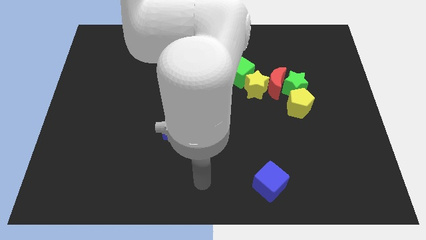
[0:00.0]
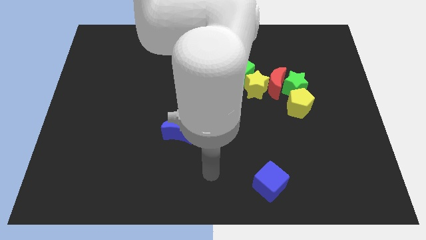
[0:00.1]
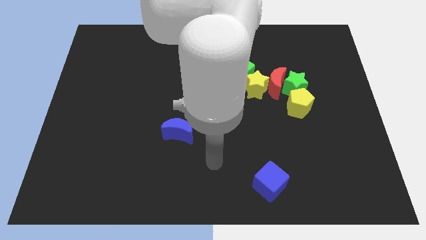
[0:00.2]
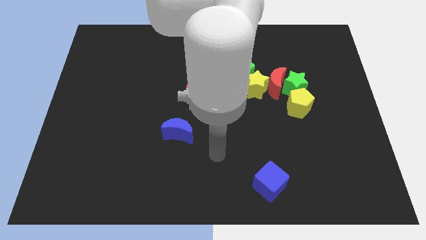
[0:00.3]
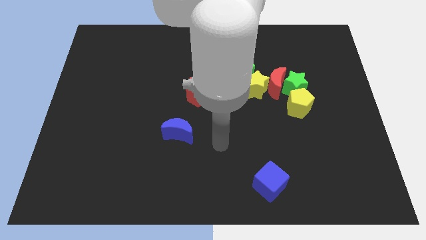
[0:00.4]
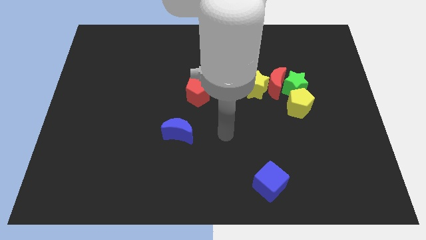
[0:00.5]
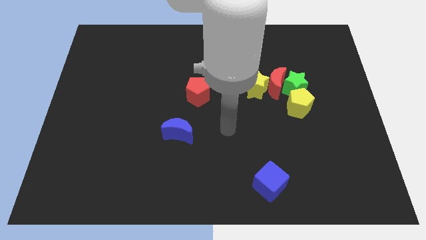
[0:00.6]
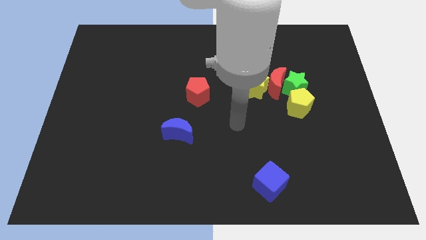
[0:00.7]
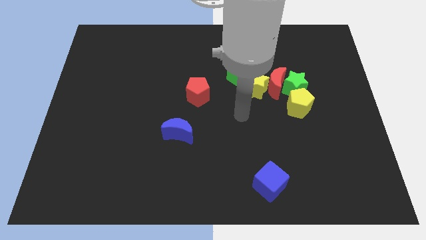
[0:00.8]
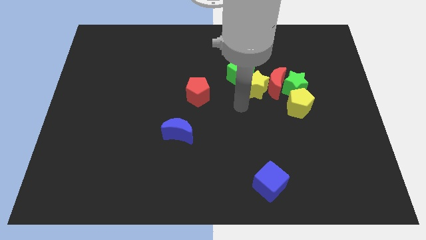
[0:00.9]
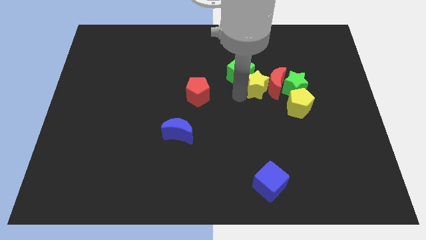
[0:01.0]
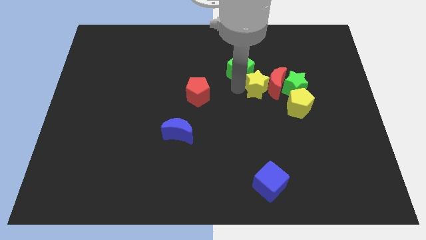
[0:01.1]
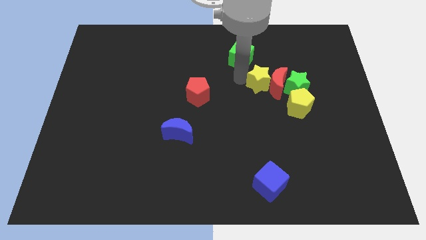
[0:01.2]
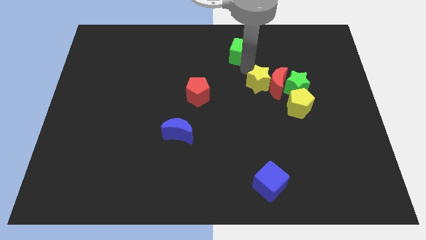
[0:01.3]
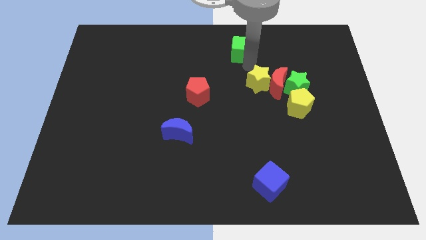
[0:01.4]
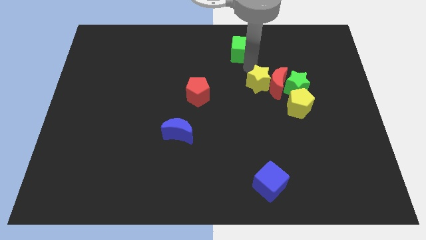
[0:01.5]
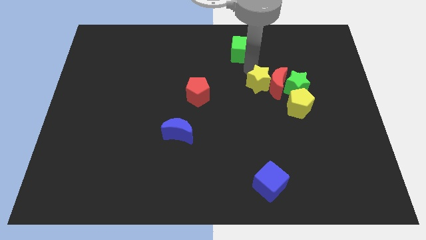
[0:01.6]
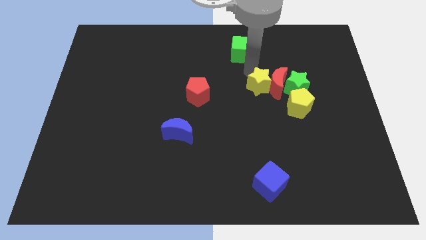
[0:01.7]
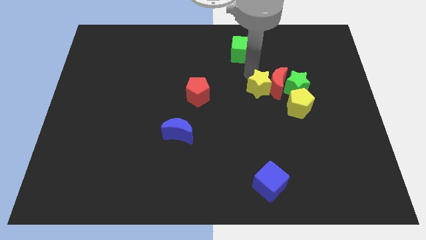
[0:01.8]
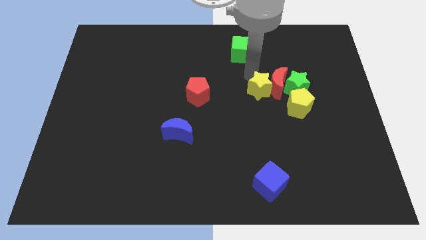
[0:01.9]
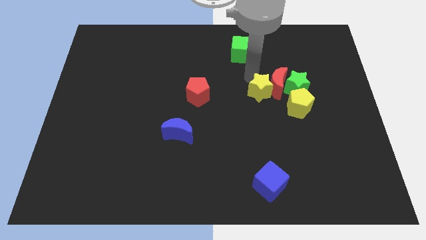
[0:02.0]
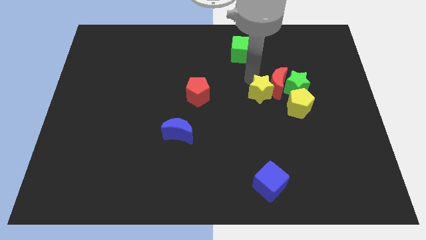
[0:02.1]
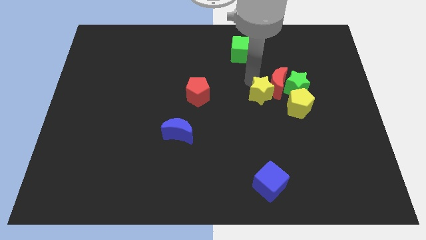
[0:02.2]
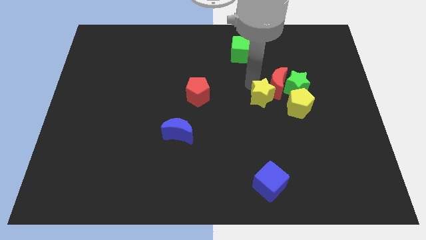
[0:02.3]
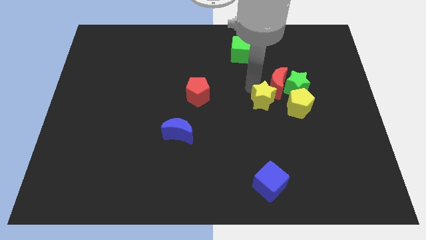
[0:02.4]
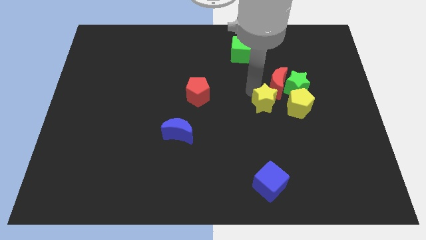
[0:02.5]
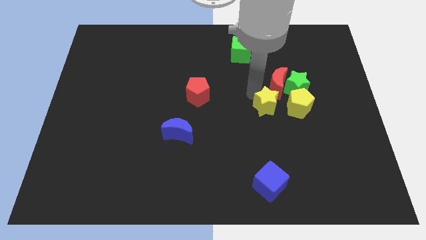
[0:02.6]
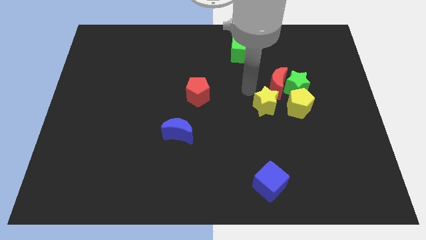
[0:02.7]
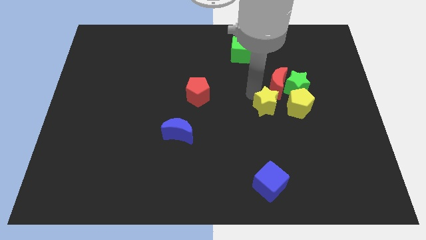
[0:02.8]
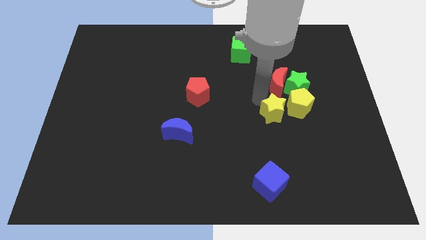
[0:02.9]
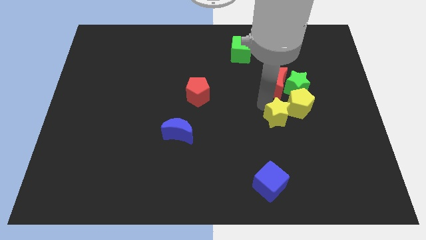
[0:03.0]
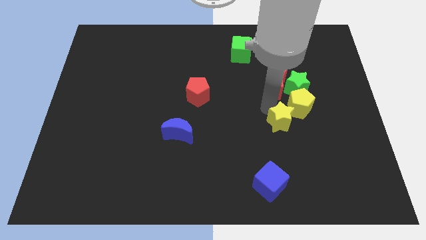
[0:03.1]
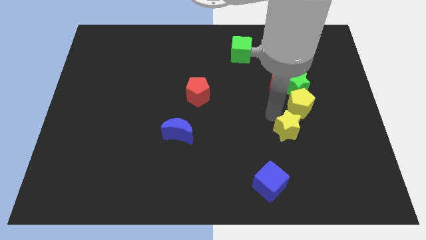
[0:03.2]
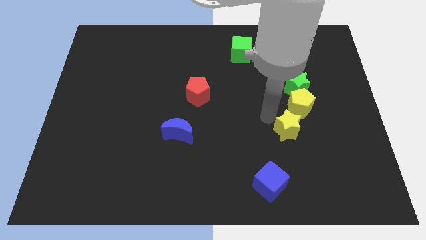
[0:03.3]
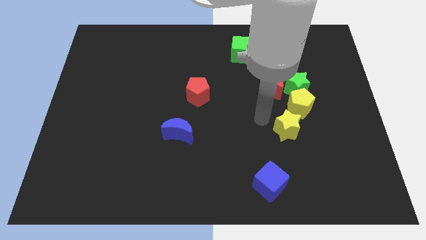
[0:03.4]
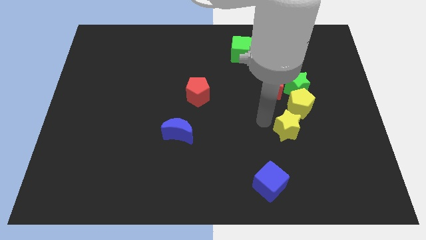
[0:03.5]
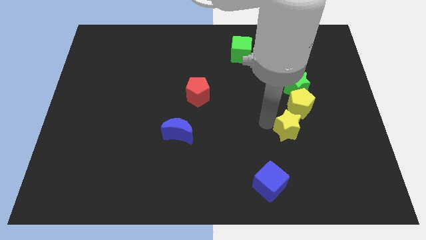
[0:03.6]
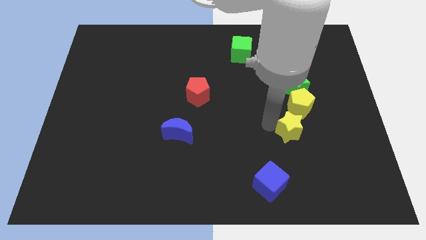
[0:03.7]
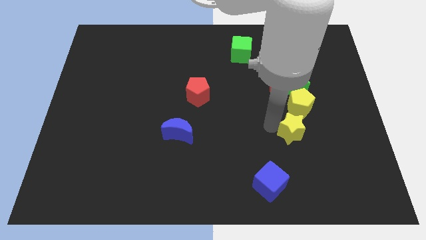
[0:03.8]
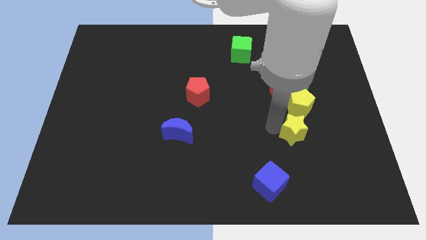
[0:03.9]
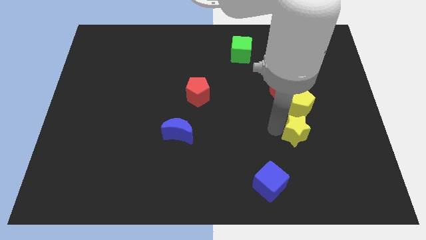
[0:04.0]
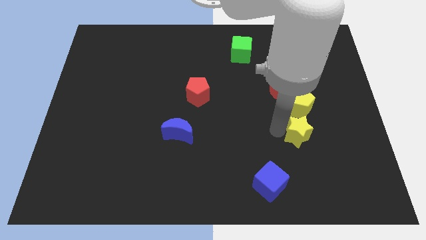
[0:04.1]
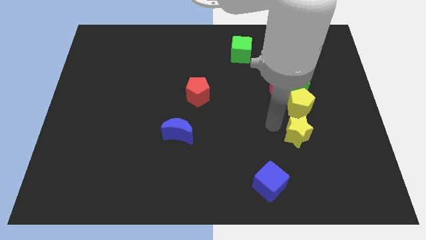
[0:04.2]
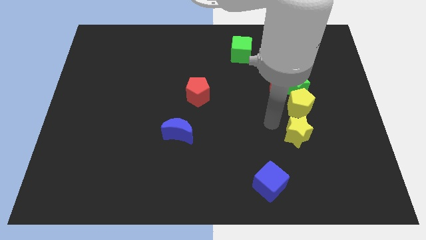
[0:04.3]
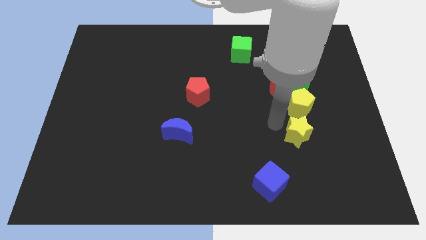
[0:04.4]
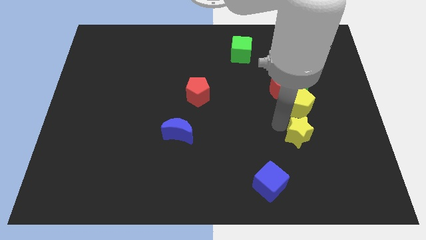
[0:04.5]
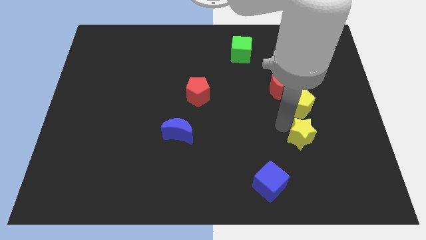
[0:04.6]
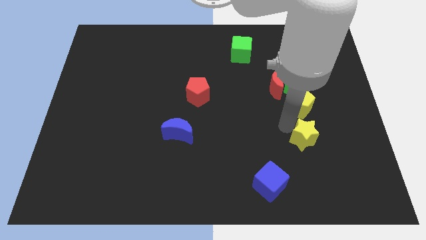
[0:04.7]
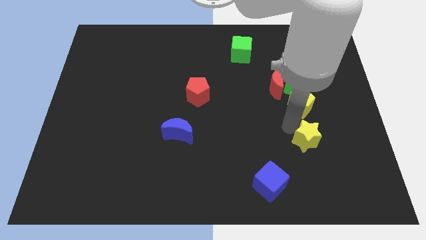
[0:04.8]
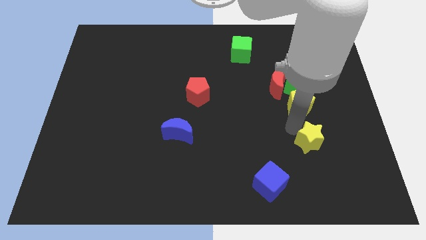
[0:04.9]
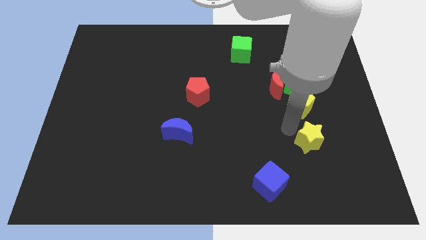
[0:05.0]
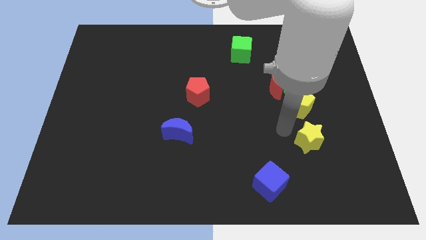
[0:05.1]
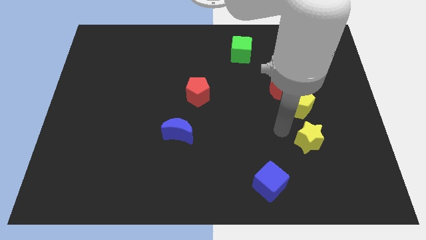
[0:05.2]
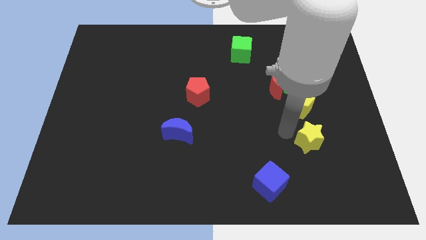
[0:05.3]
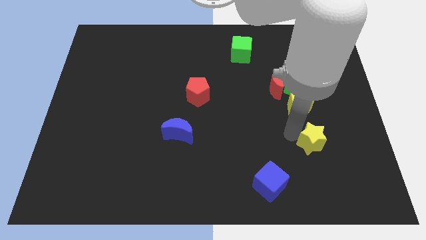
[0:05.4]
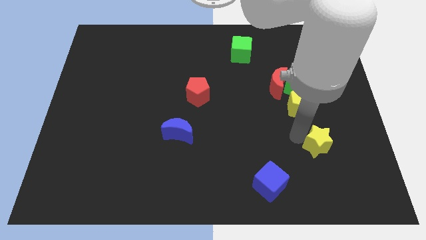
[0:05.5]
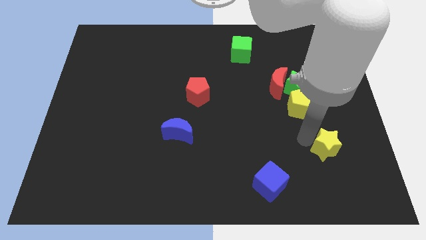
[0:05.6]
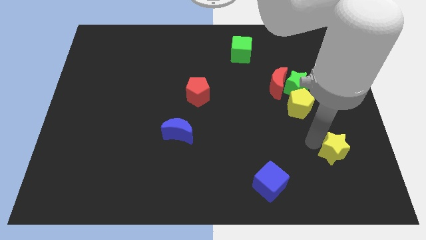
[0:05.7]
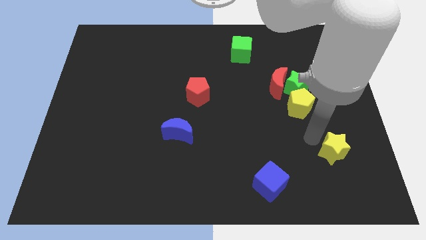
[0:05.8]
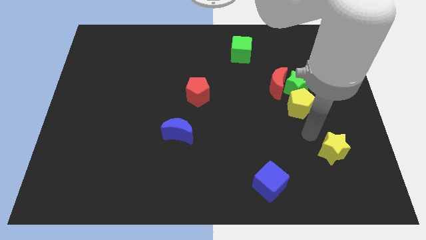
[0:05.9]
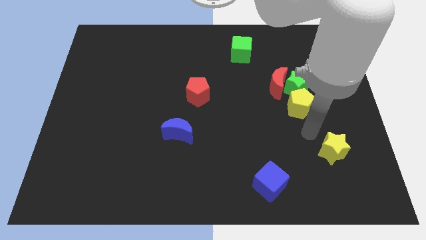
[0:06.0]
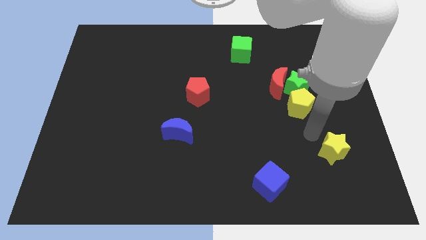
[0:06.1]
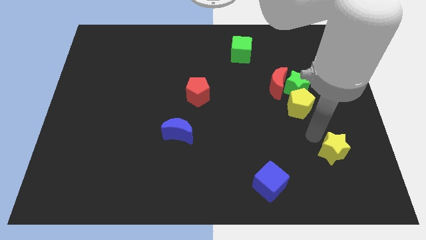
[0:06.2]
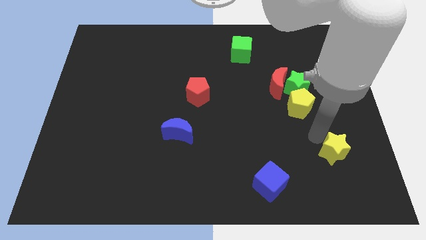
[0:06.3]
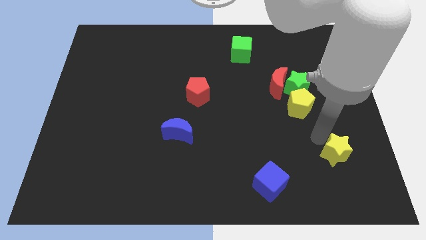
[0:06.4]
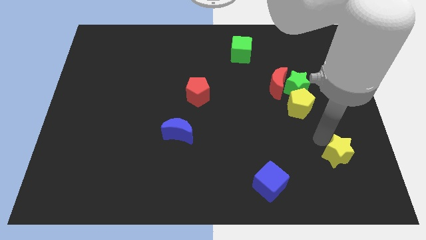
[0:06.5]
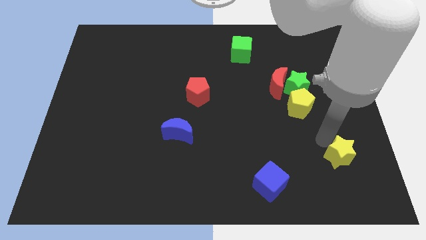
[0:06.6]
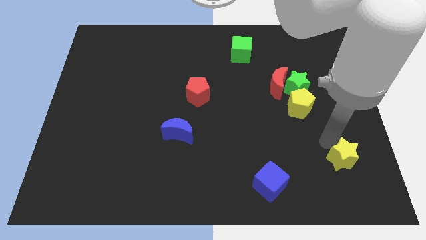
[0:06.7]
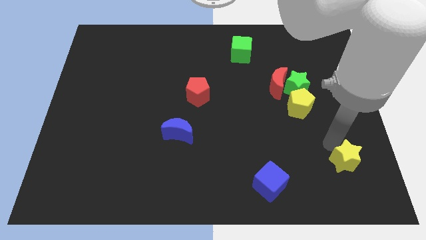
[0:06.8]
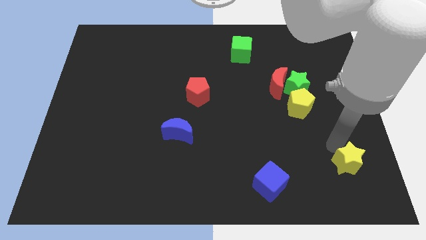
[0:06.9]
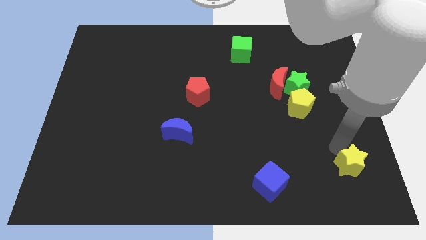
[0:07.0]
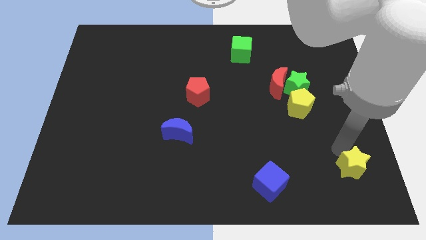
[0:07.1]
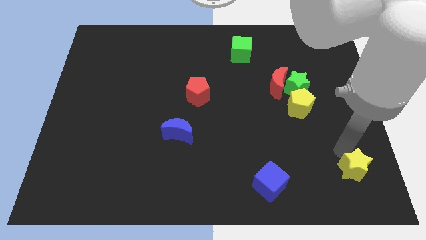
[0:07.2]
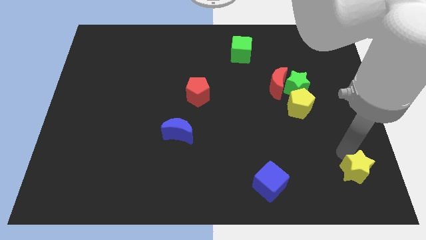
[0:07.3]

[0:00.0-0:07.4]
slide the yellow star to the lower right corner
